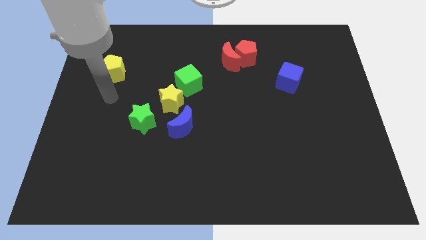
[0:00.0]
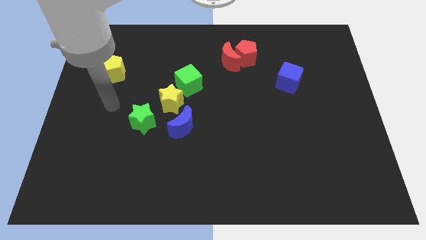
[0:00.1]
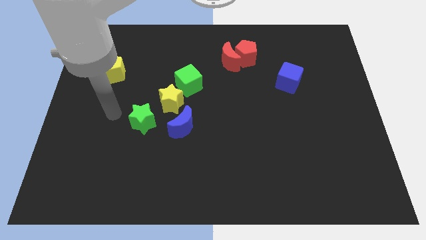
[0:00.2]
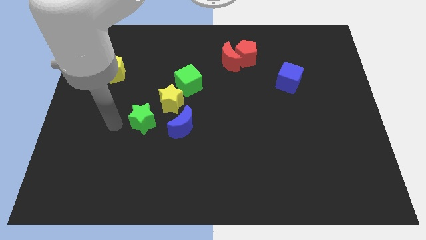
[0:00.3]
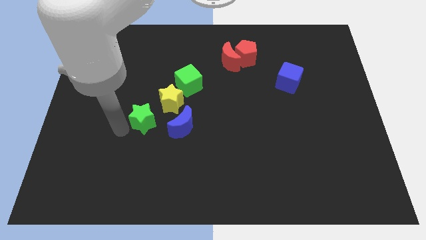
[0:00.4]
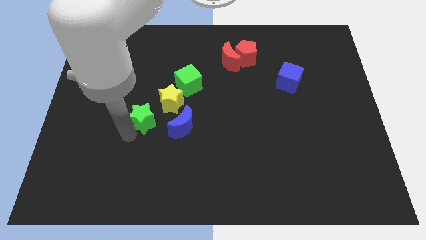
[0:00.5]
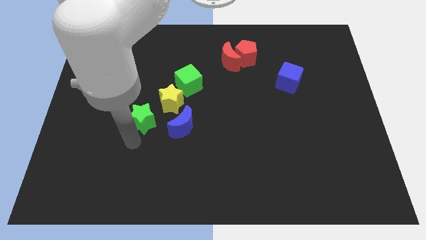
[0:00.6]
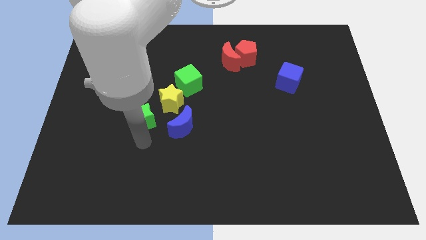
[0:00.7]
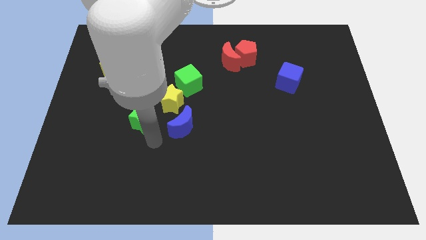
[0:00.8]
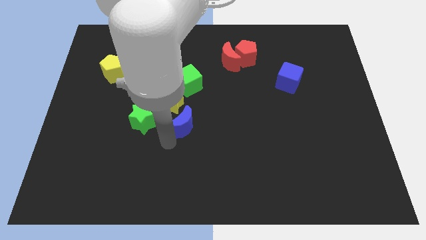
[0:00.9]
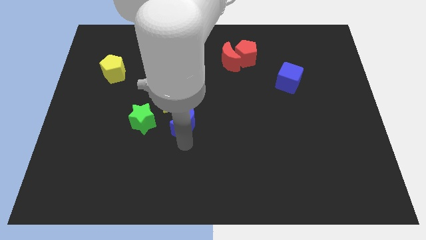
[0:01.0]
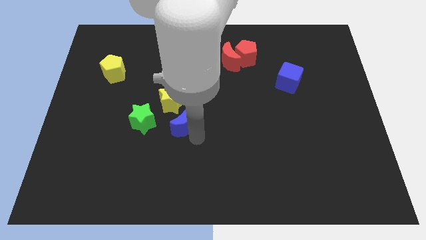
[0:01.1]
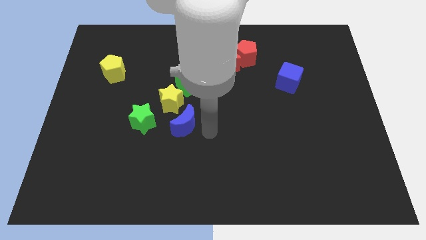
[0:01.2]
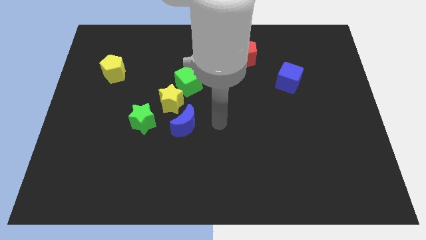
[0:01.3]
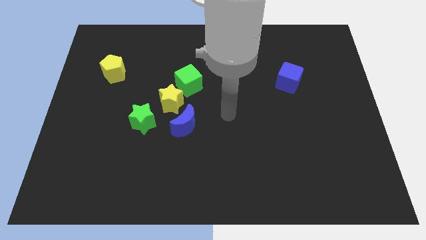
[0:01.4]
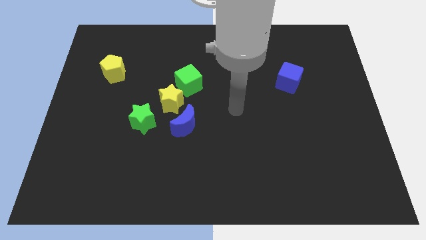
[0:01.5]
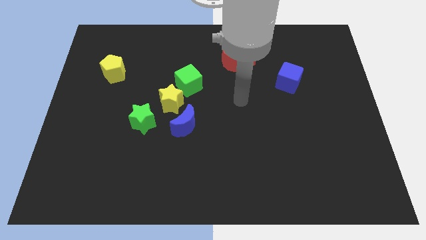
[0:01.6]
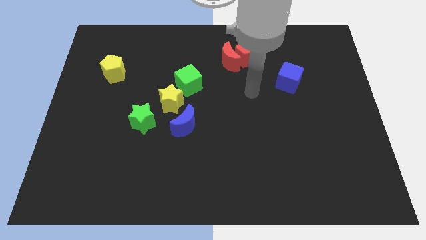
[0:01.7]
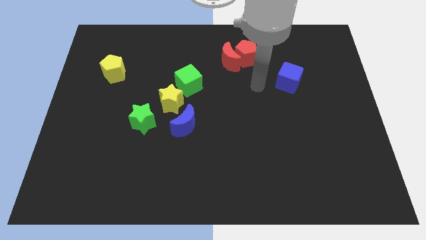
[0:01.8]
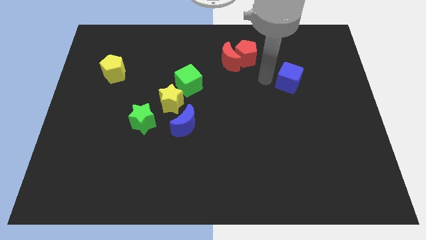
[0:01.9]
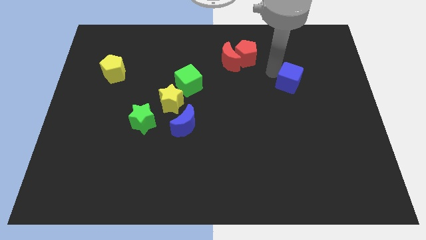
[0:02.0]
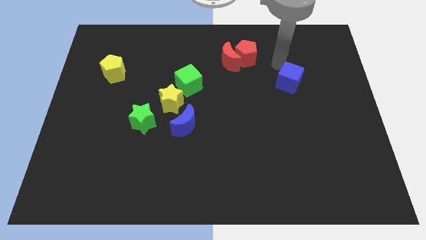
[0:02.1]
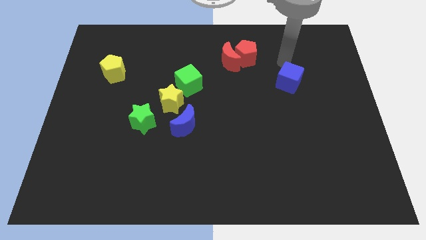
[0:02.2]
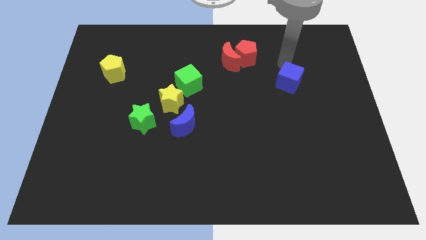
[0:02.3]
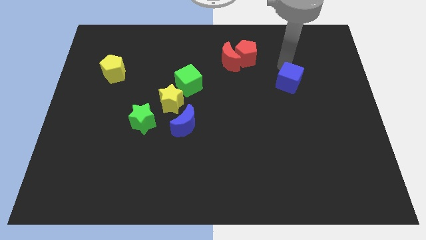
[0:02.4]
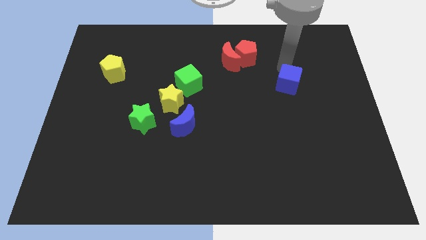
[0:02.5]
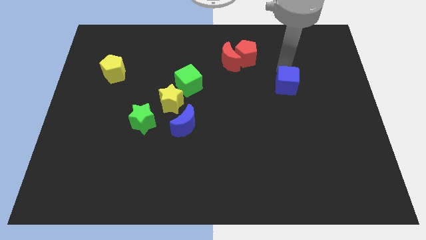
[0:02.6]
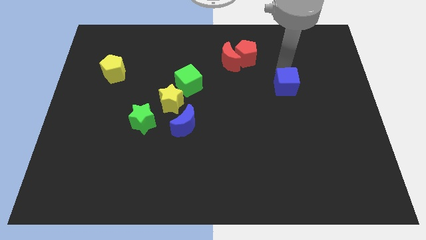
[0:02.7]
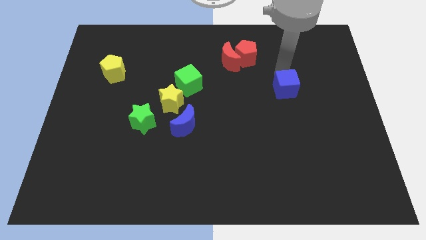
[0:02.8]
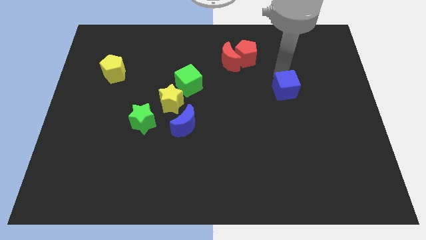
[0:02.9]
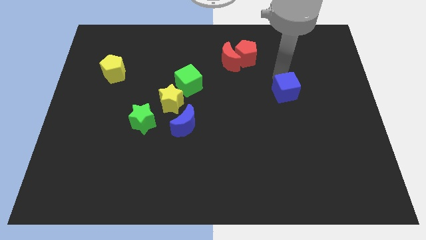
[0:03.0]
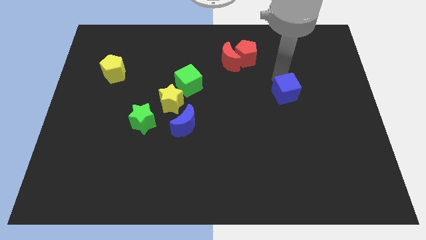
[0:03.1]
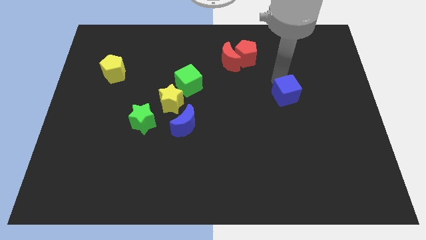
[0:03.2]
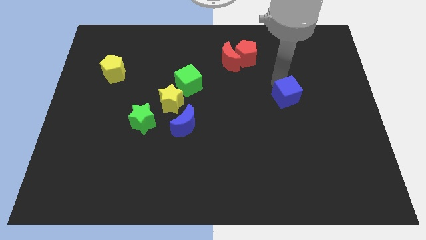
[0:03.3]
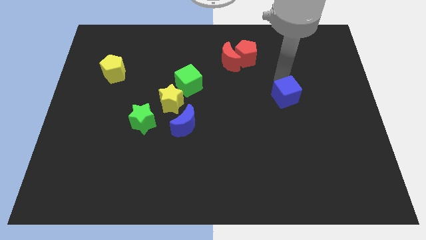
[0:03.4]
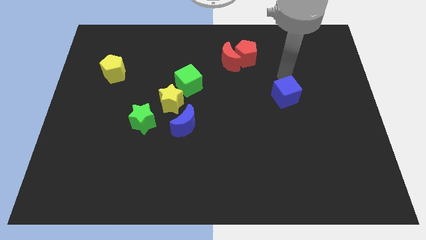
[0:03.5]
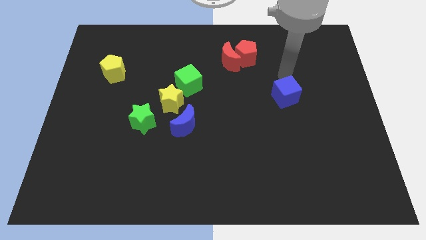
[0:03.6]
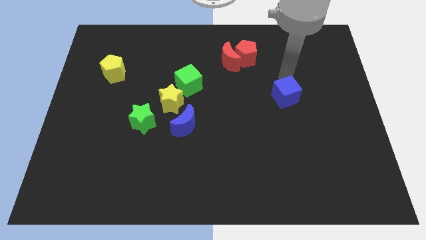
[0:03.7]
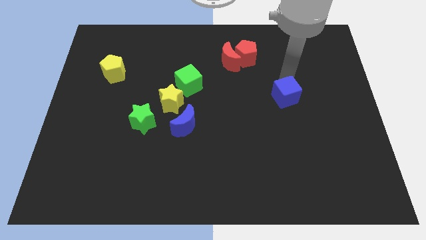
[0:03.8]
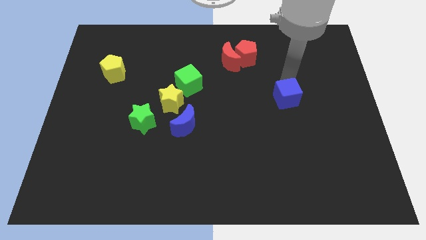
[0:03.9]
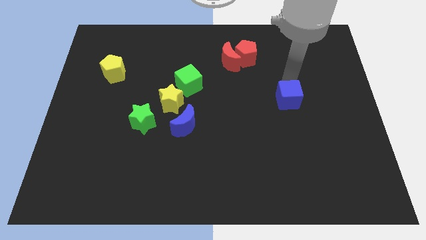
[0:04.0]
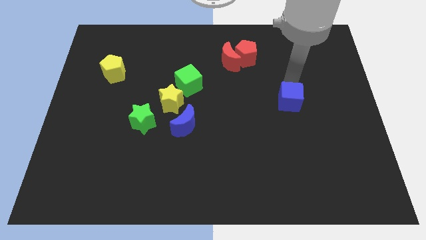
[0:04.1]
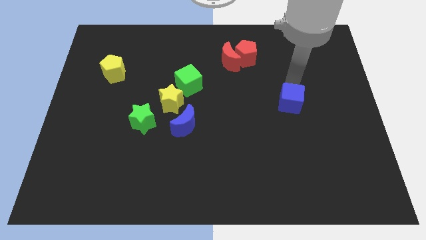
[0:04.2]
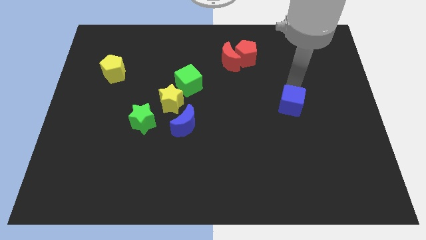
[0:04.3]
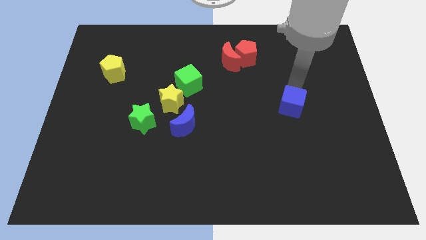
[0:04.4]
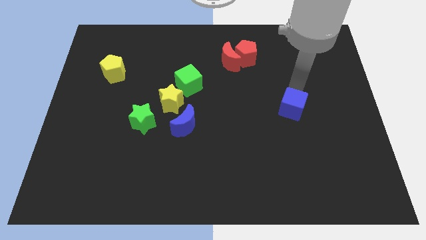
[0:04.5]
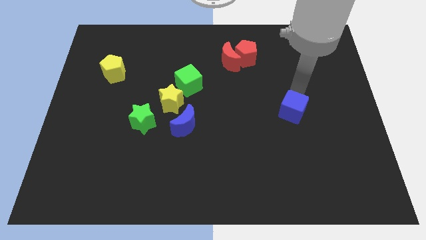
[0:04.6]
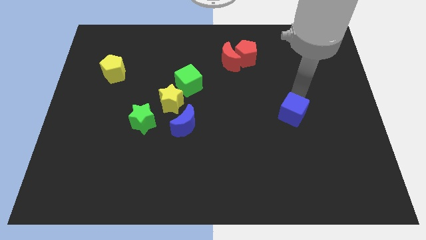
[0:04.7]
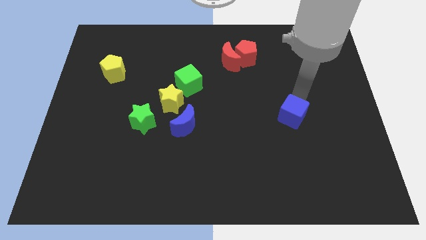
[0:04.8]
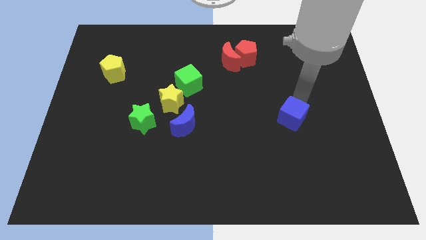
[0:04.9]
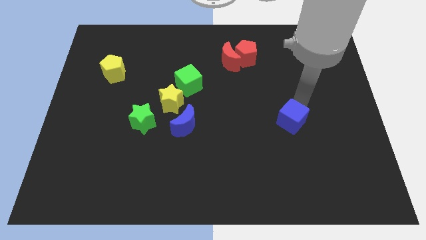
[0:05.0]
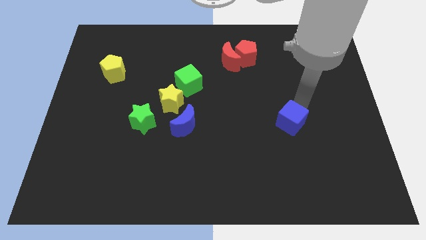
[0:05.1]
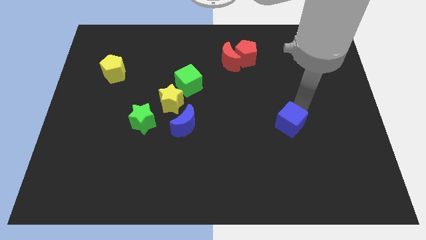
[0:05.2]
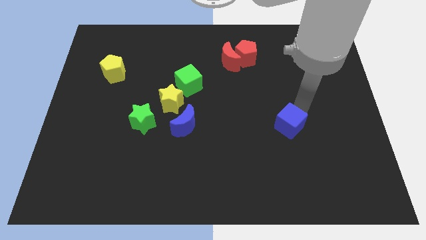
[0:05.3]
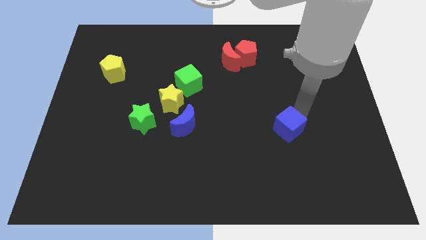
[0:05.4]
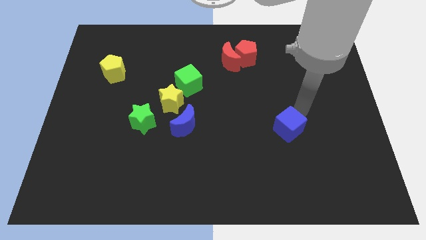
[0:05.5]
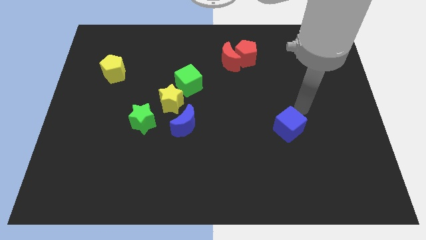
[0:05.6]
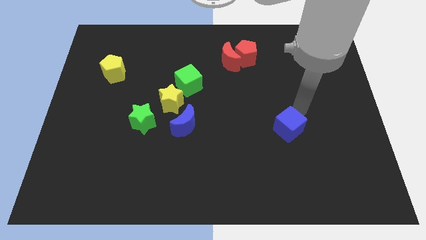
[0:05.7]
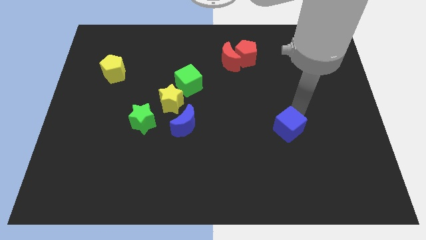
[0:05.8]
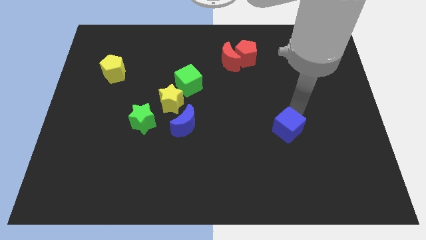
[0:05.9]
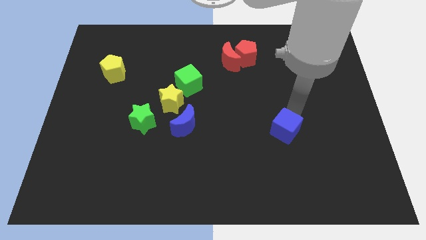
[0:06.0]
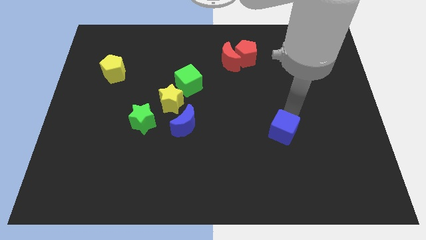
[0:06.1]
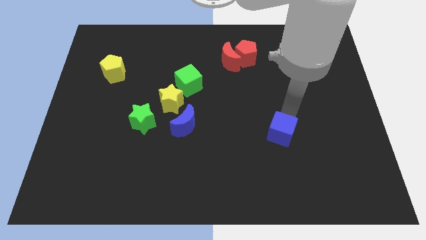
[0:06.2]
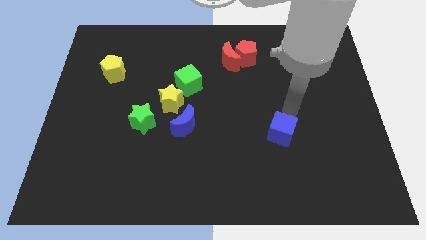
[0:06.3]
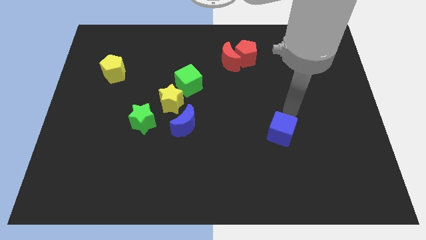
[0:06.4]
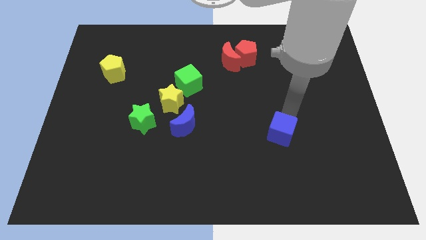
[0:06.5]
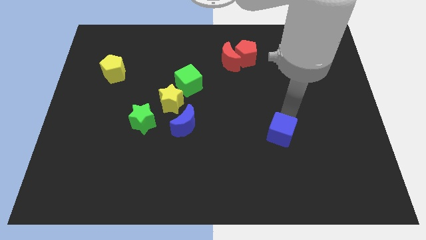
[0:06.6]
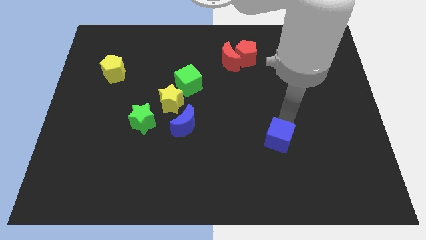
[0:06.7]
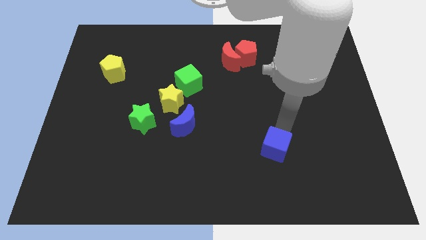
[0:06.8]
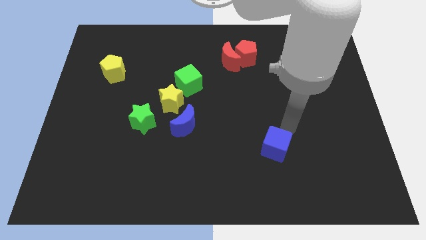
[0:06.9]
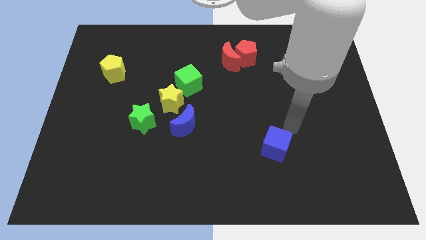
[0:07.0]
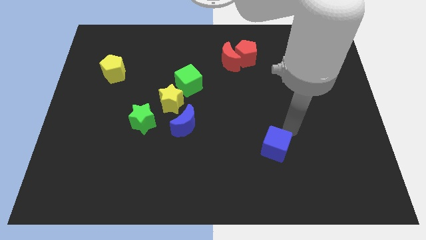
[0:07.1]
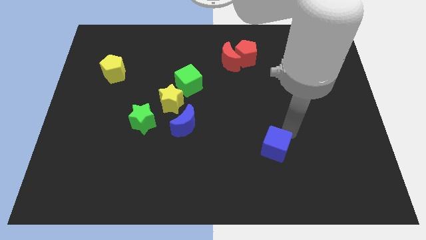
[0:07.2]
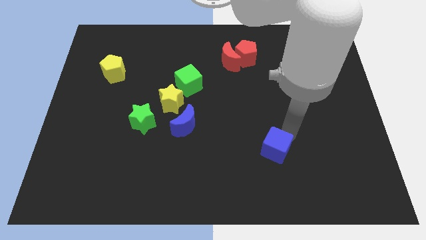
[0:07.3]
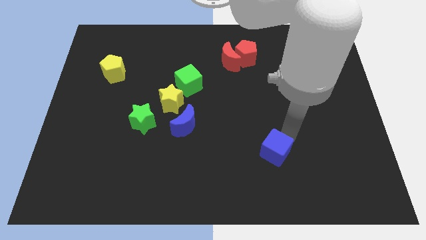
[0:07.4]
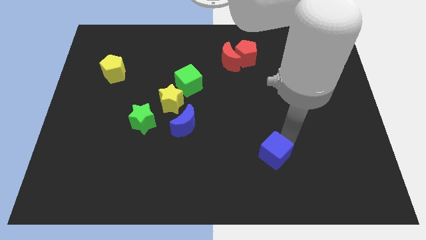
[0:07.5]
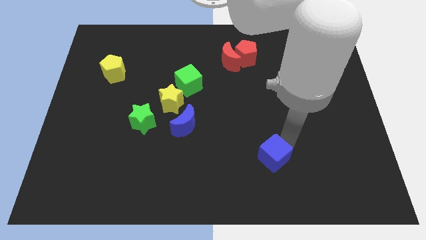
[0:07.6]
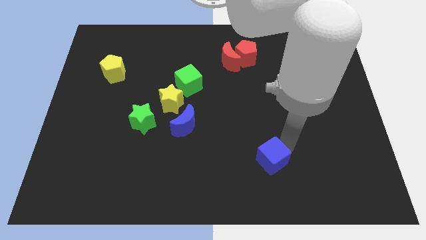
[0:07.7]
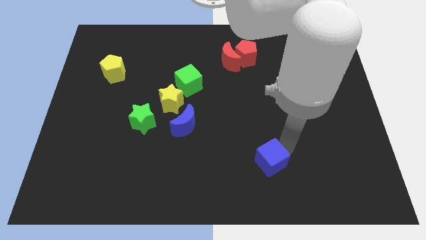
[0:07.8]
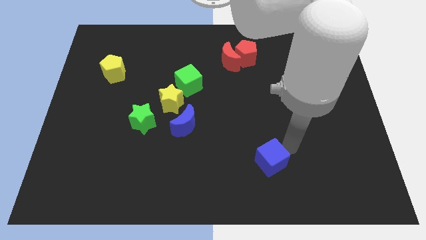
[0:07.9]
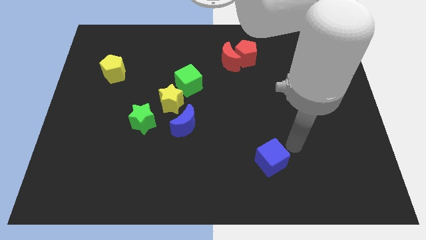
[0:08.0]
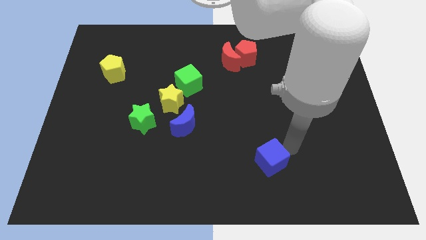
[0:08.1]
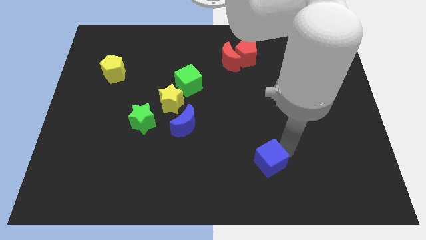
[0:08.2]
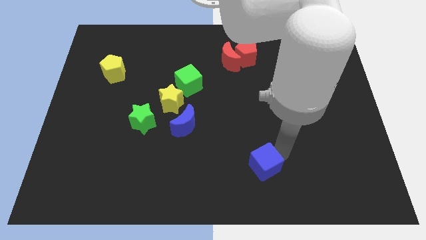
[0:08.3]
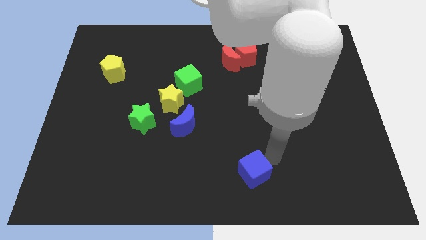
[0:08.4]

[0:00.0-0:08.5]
push the blue cube to the bottom
